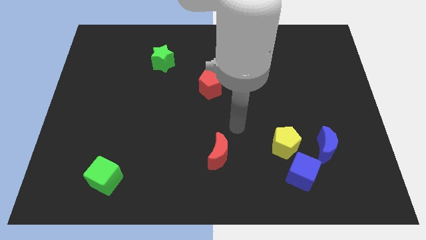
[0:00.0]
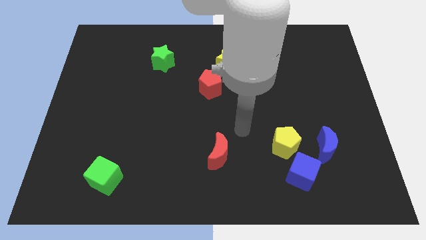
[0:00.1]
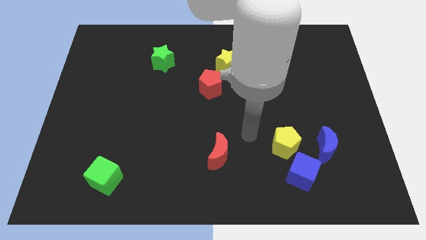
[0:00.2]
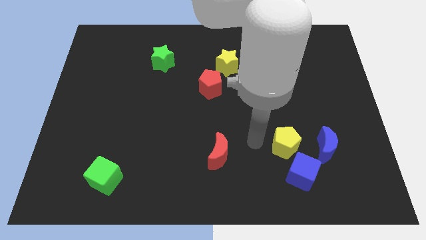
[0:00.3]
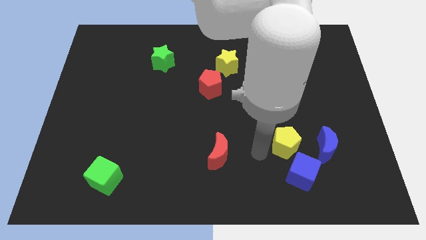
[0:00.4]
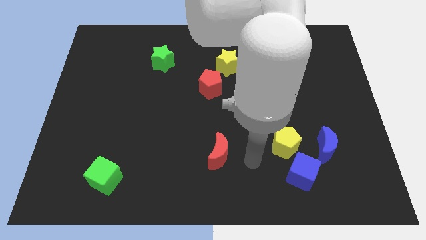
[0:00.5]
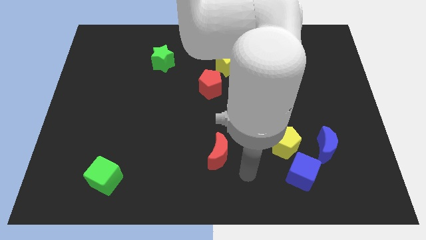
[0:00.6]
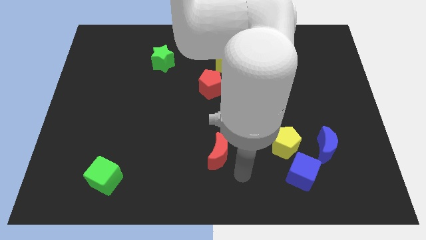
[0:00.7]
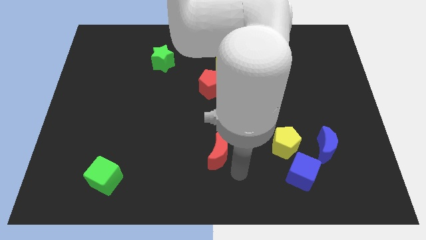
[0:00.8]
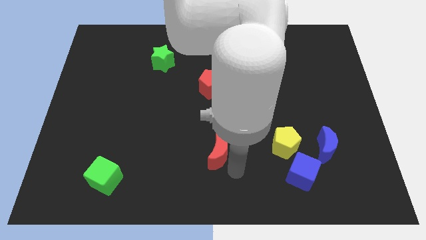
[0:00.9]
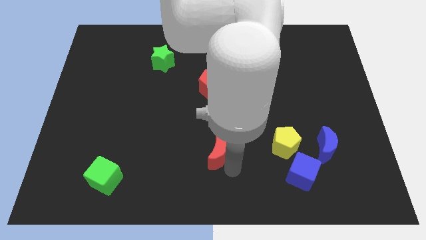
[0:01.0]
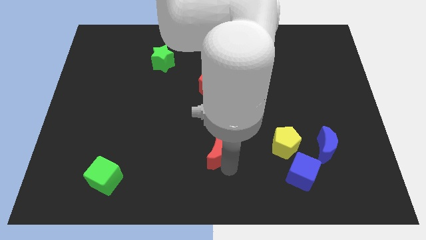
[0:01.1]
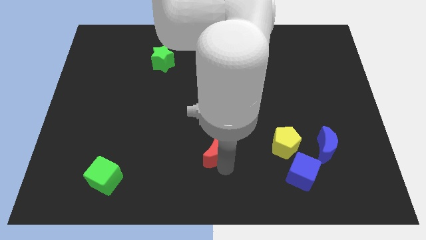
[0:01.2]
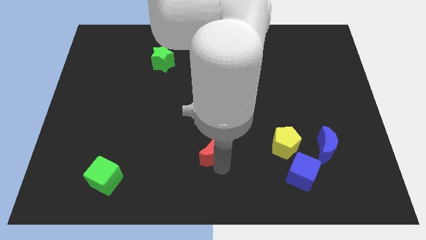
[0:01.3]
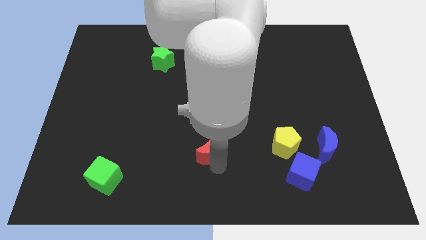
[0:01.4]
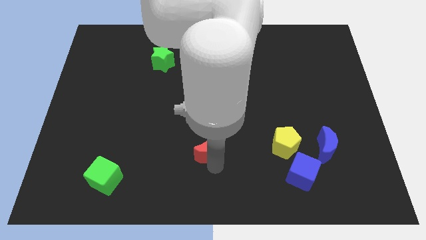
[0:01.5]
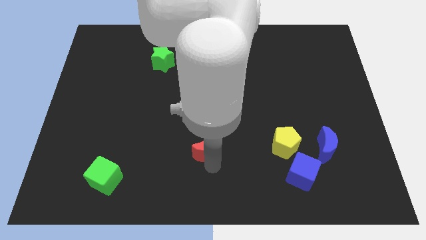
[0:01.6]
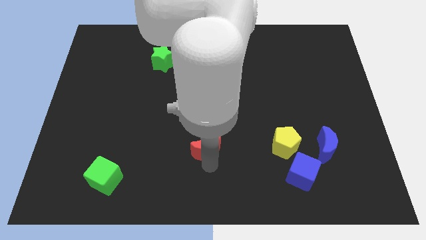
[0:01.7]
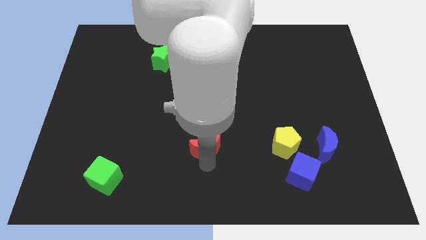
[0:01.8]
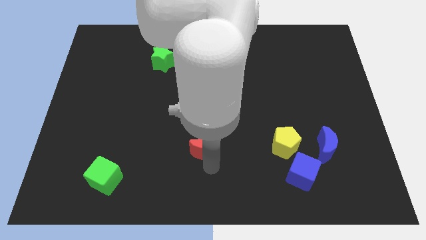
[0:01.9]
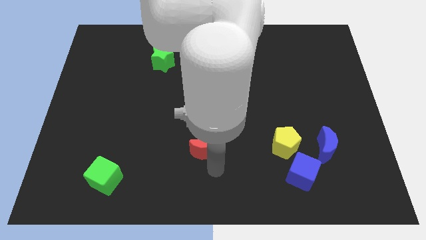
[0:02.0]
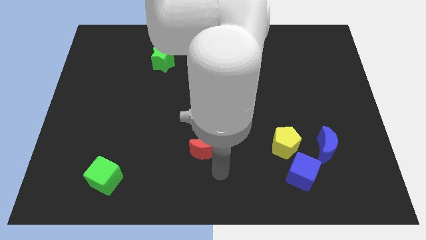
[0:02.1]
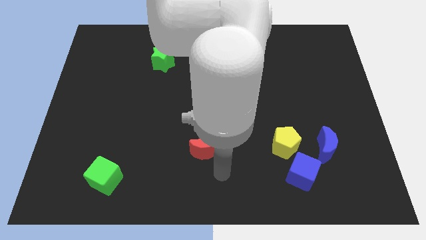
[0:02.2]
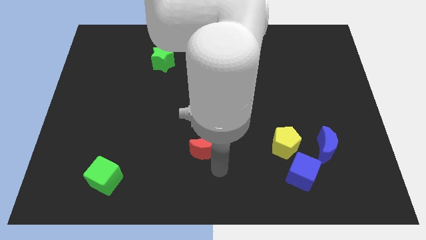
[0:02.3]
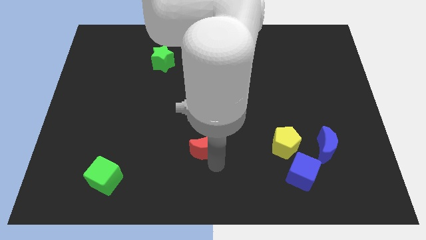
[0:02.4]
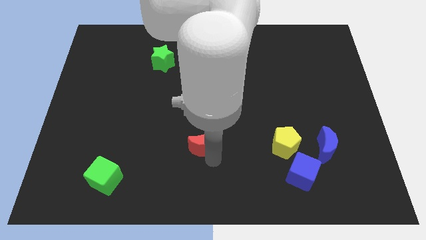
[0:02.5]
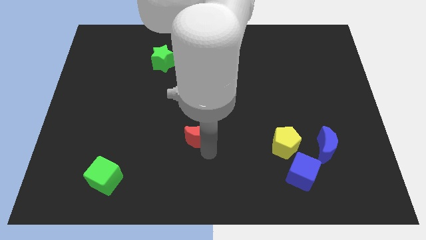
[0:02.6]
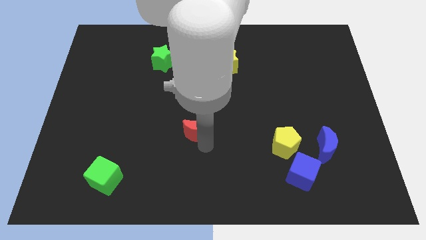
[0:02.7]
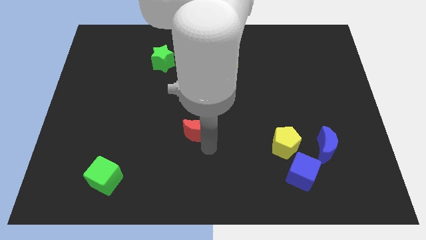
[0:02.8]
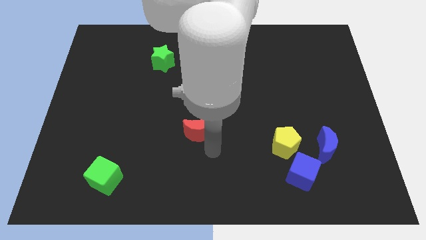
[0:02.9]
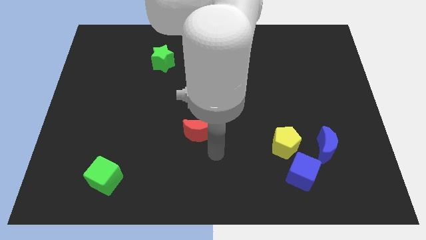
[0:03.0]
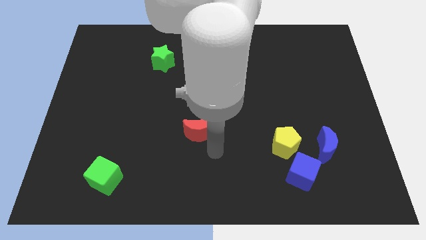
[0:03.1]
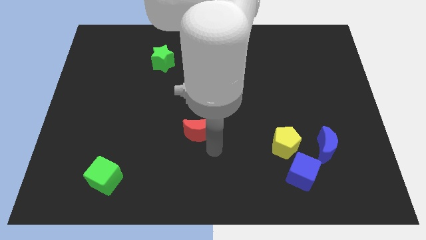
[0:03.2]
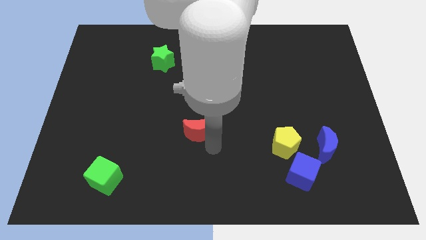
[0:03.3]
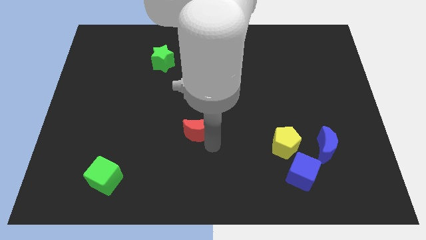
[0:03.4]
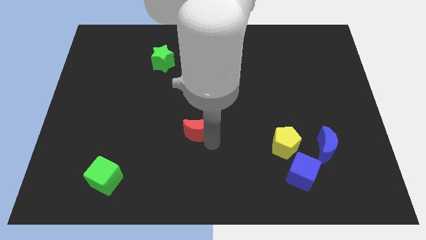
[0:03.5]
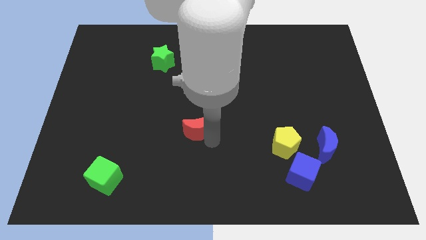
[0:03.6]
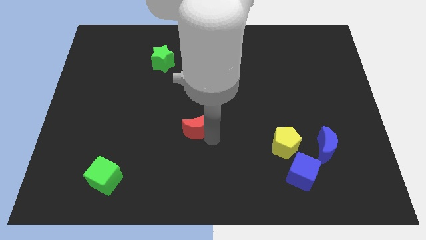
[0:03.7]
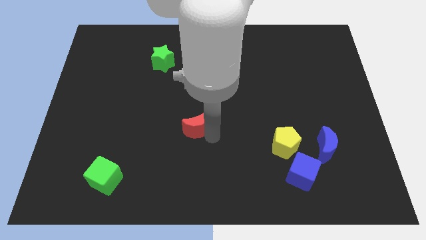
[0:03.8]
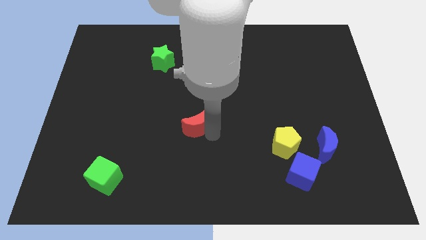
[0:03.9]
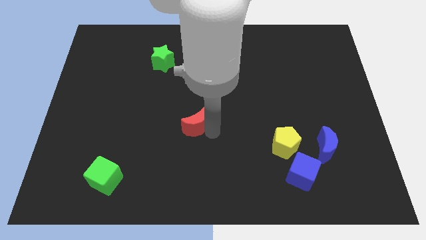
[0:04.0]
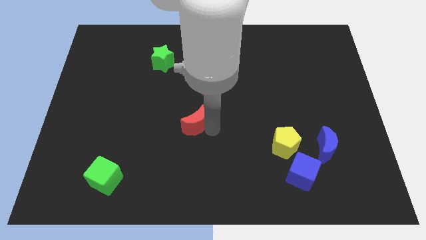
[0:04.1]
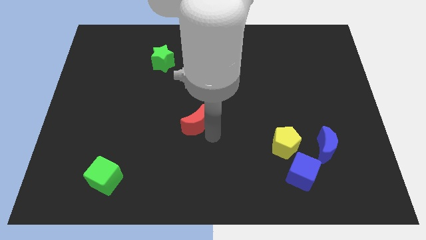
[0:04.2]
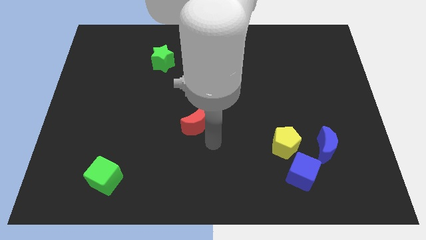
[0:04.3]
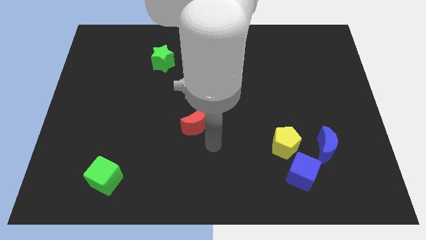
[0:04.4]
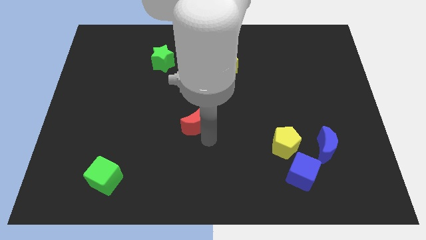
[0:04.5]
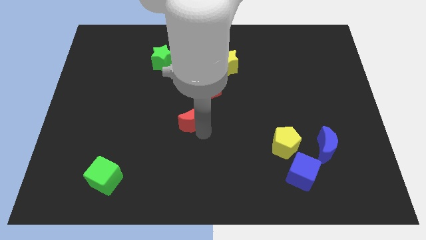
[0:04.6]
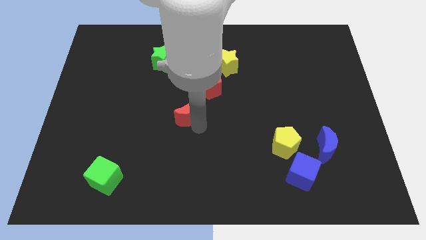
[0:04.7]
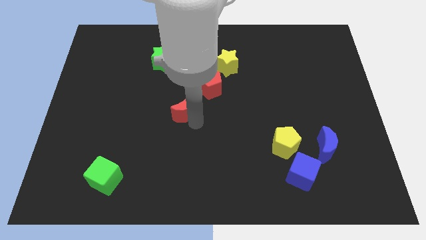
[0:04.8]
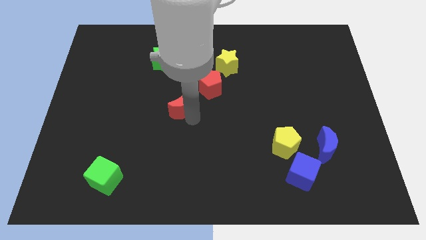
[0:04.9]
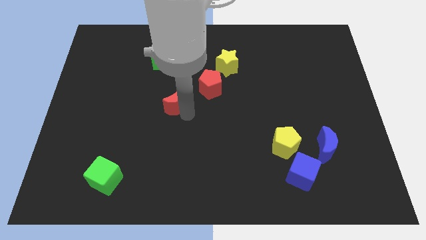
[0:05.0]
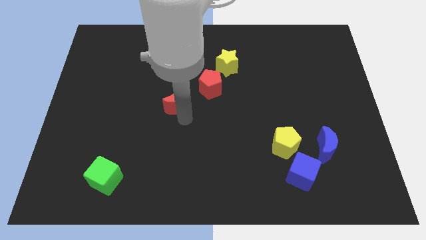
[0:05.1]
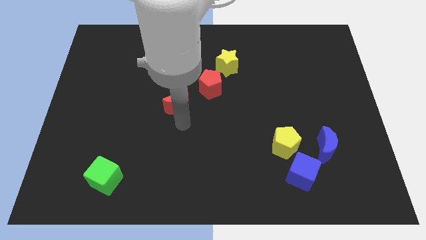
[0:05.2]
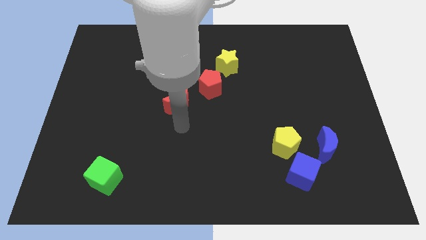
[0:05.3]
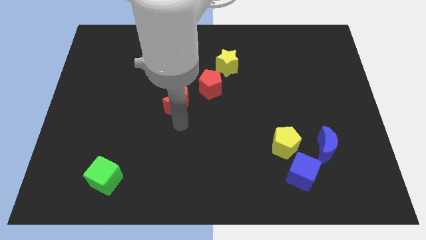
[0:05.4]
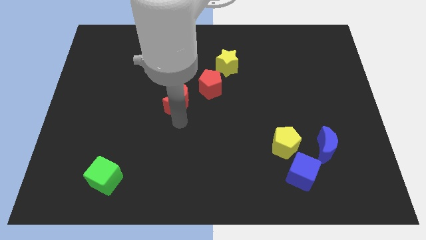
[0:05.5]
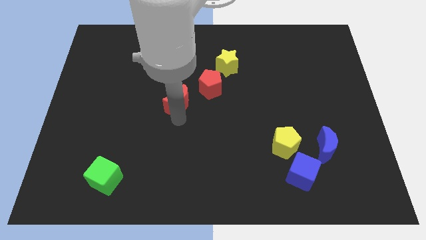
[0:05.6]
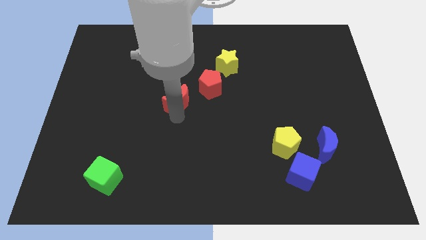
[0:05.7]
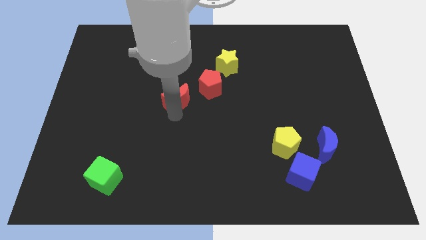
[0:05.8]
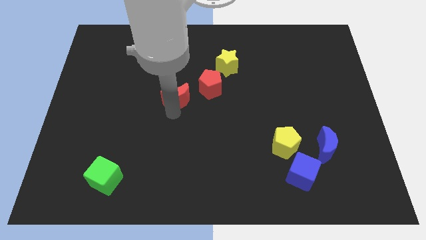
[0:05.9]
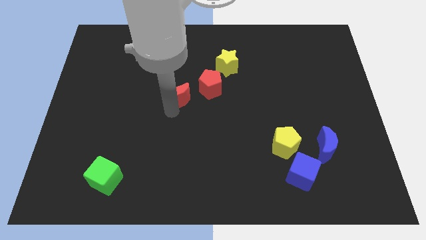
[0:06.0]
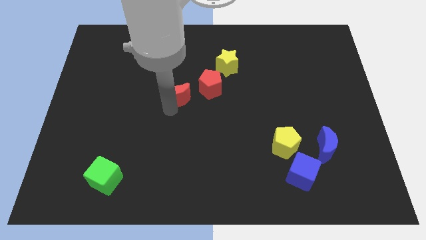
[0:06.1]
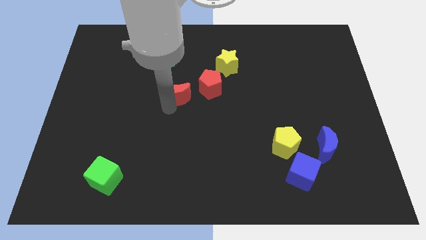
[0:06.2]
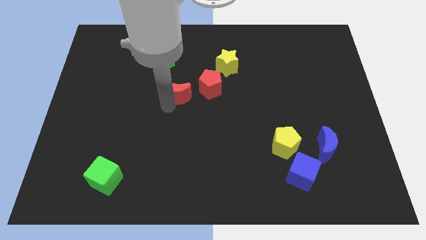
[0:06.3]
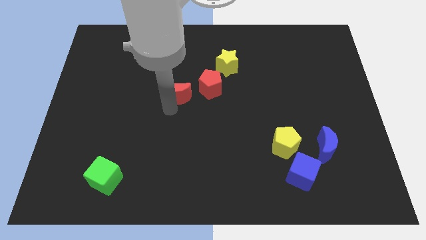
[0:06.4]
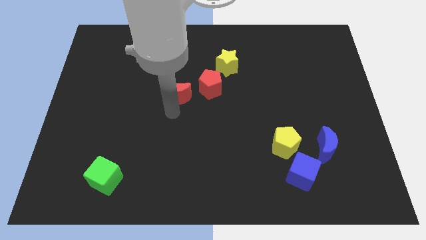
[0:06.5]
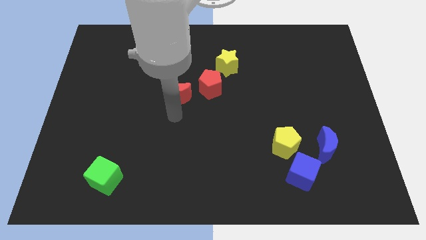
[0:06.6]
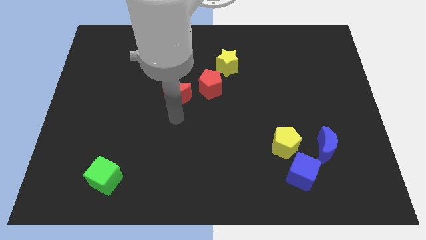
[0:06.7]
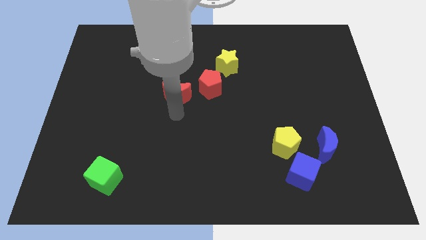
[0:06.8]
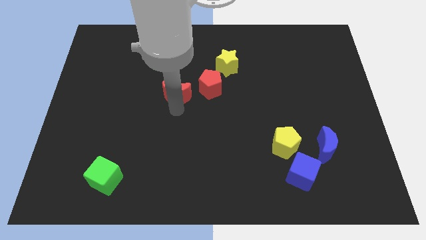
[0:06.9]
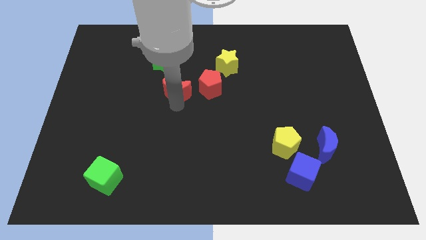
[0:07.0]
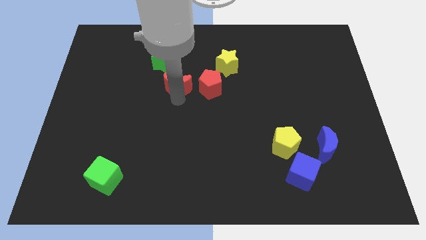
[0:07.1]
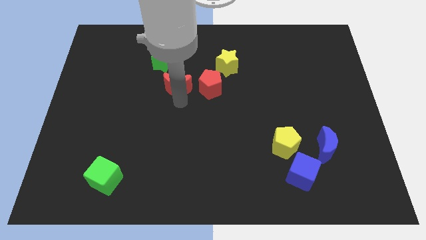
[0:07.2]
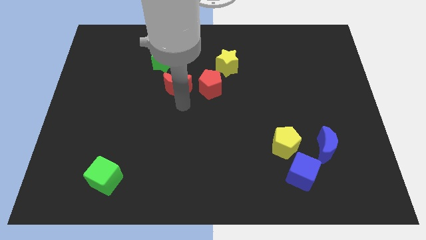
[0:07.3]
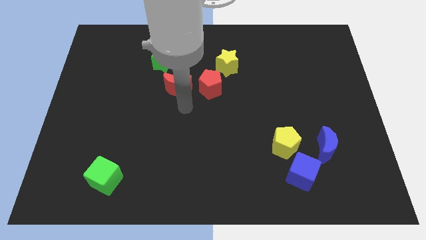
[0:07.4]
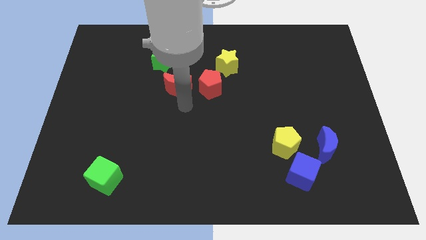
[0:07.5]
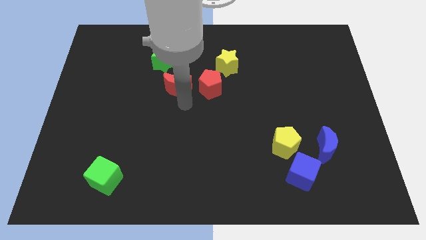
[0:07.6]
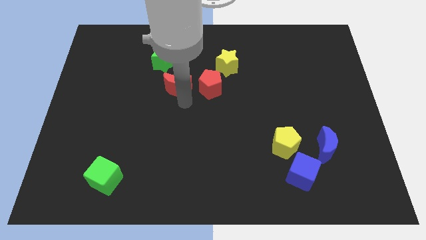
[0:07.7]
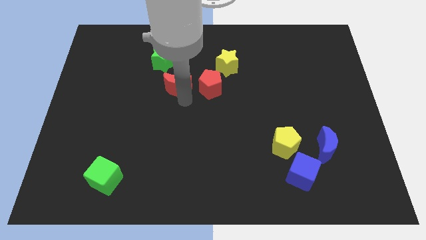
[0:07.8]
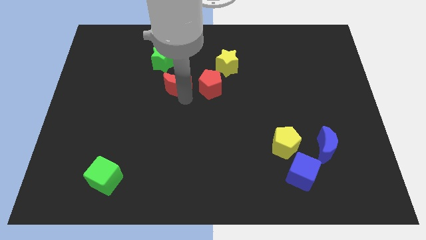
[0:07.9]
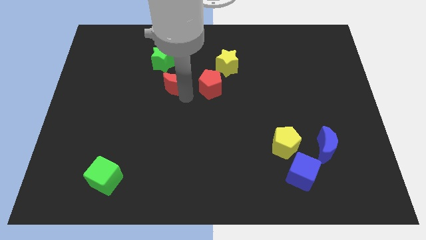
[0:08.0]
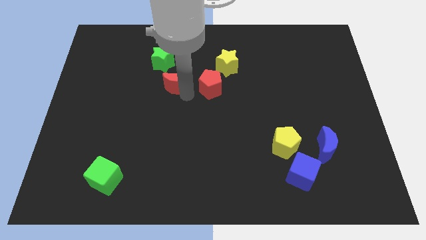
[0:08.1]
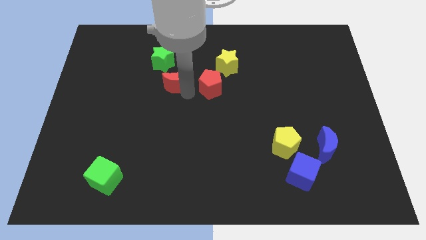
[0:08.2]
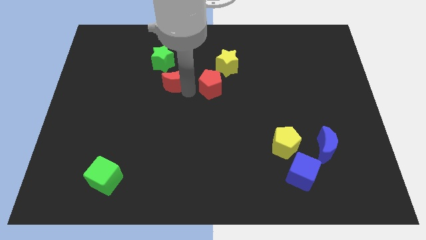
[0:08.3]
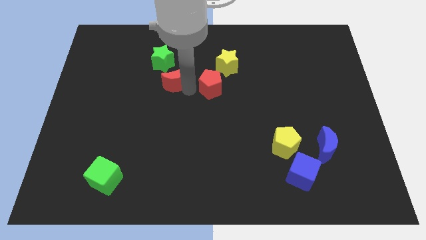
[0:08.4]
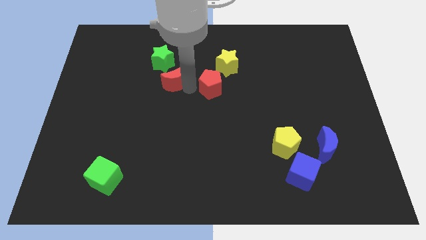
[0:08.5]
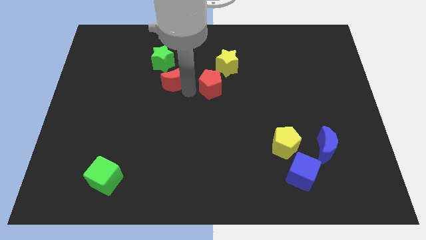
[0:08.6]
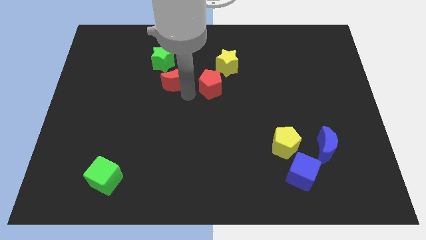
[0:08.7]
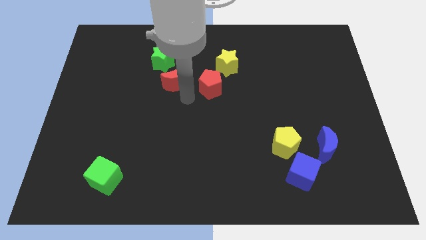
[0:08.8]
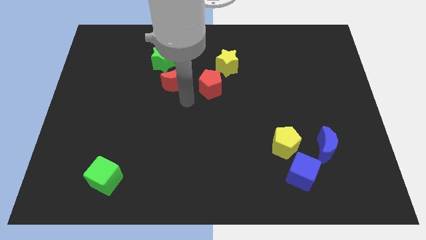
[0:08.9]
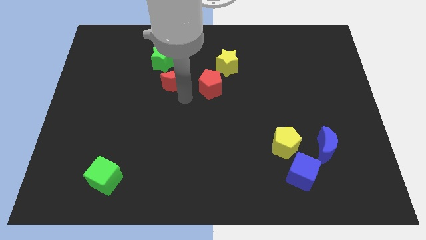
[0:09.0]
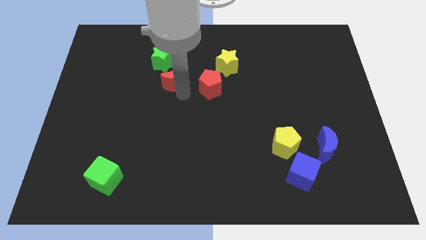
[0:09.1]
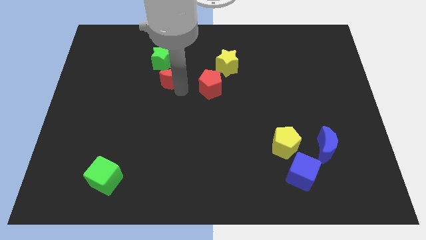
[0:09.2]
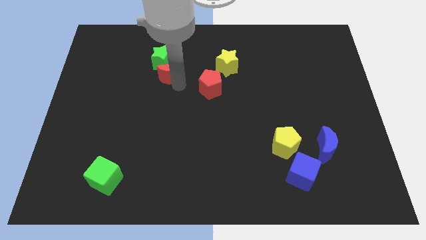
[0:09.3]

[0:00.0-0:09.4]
slide the red moon towards the green star
